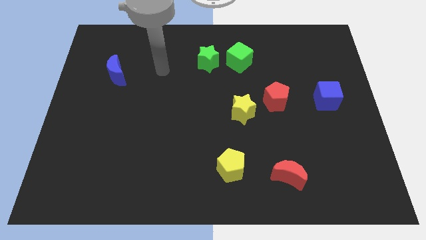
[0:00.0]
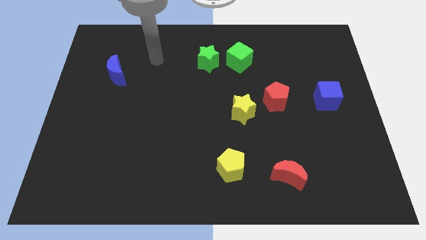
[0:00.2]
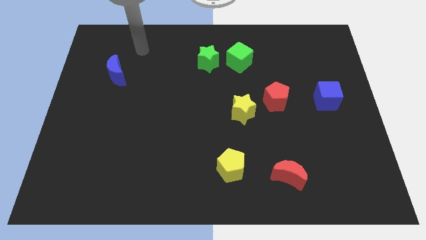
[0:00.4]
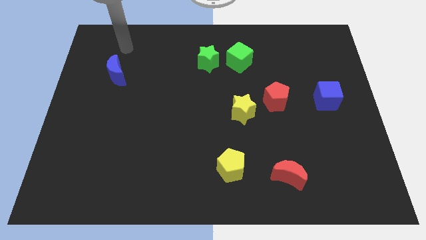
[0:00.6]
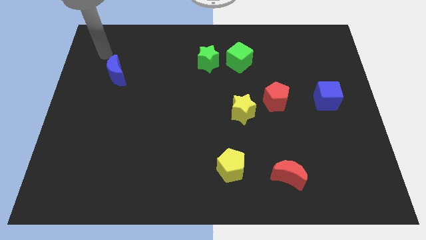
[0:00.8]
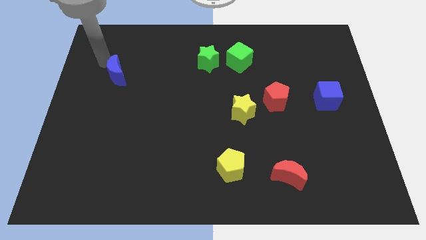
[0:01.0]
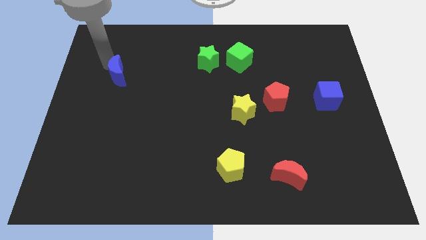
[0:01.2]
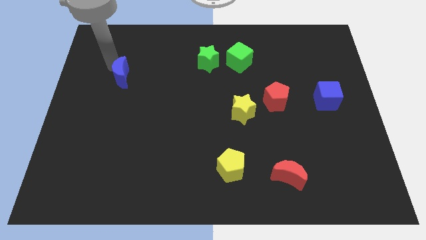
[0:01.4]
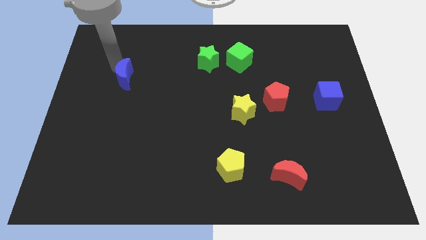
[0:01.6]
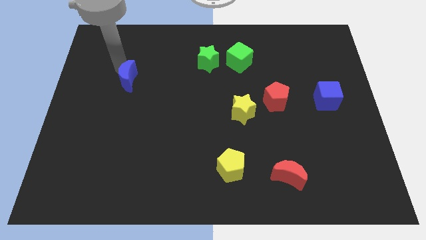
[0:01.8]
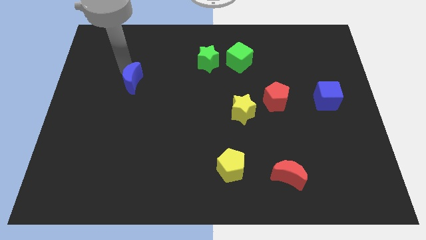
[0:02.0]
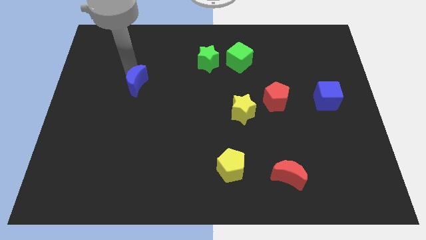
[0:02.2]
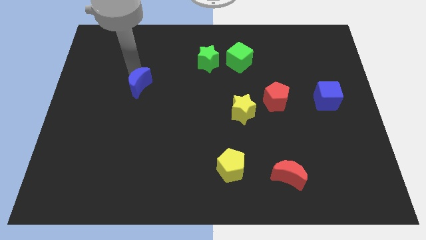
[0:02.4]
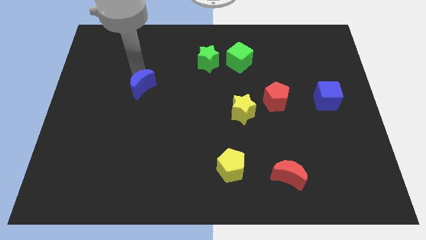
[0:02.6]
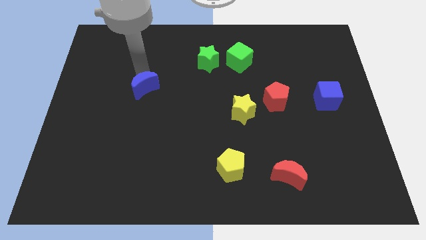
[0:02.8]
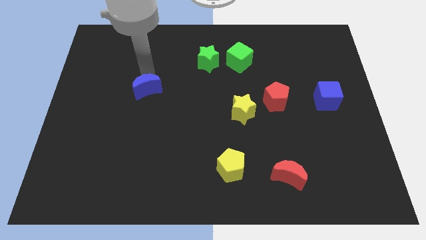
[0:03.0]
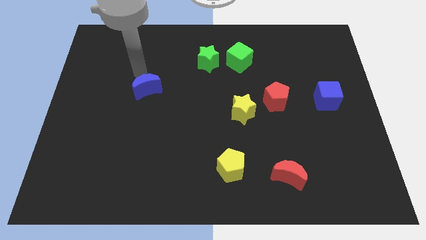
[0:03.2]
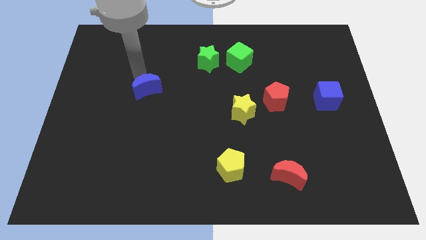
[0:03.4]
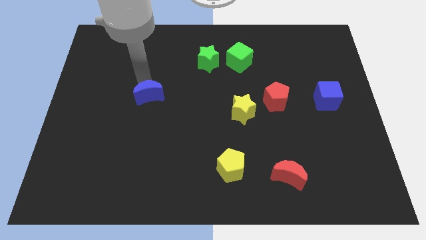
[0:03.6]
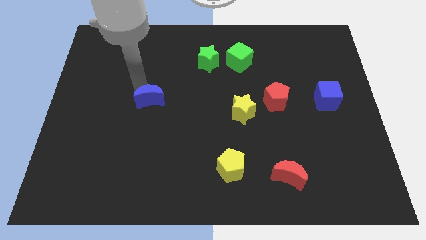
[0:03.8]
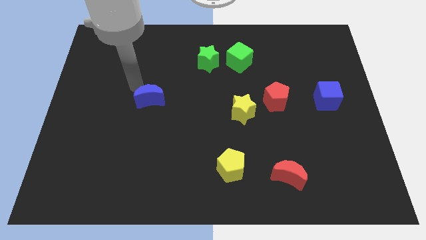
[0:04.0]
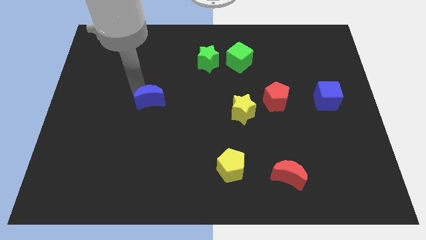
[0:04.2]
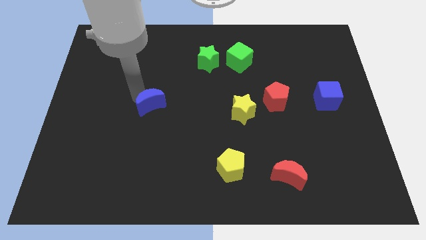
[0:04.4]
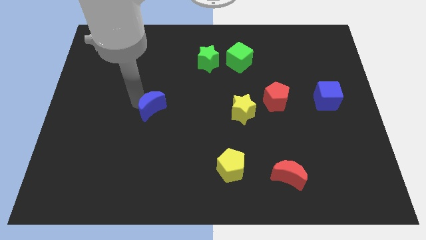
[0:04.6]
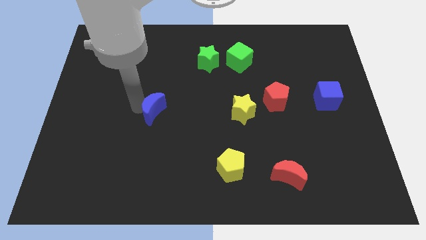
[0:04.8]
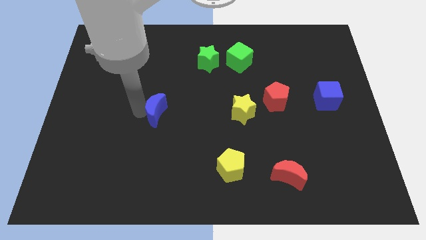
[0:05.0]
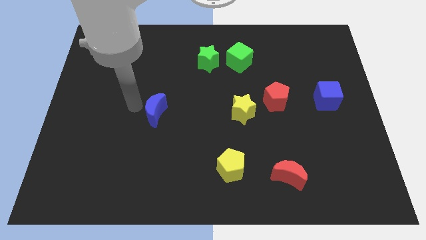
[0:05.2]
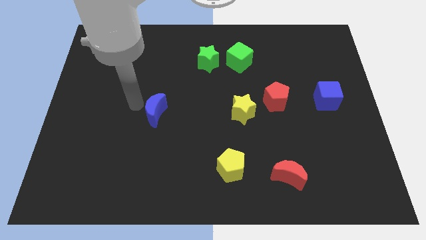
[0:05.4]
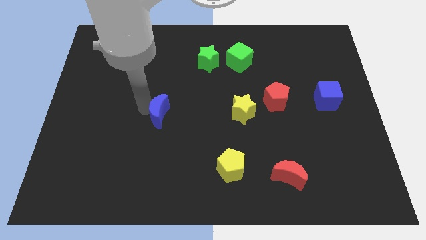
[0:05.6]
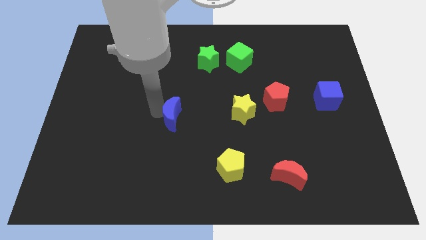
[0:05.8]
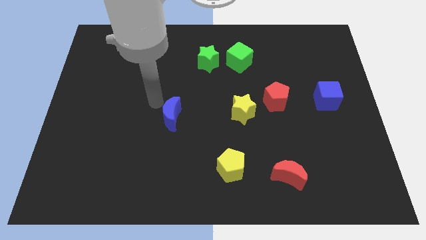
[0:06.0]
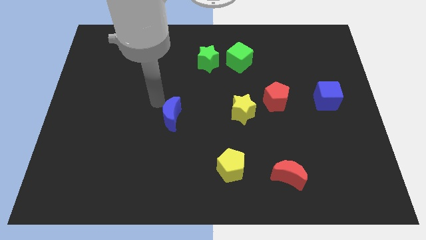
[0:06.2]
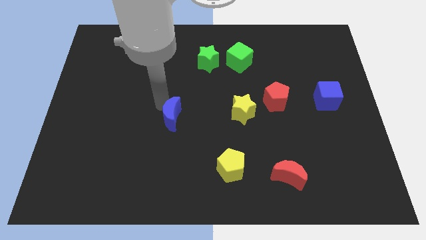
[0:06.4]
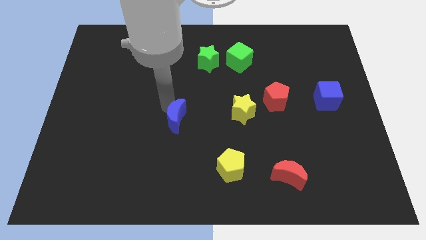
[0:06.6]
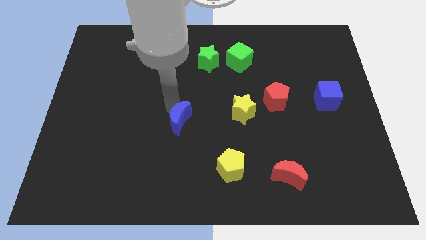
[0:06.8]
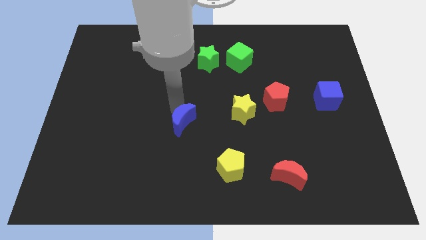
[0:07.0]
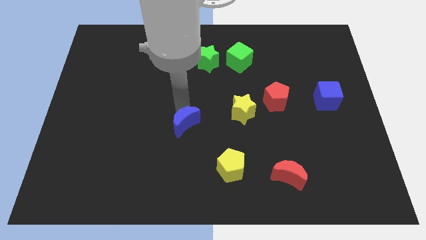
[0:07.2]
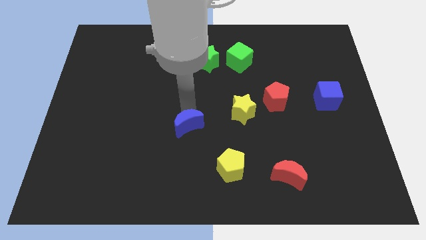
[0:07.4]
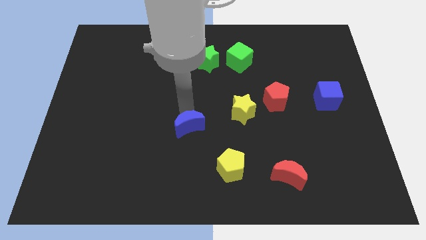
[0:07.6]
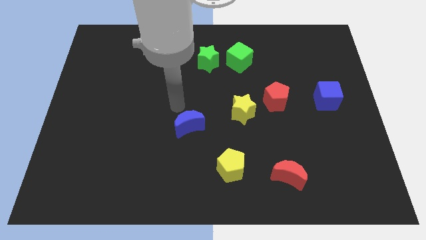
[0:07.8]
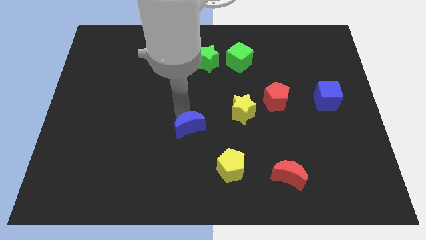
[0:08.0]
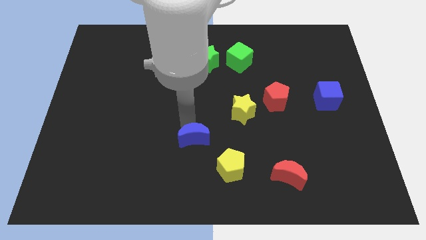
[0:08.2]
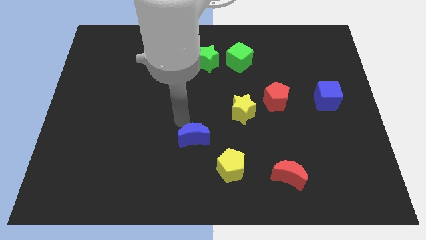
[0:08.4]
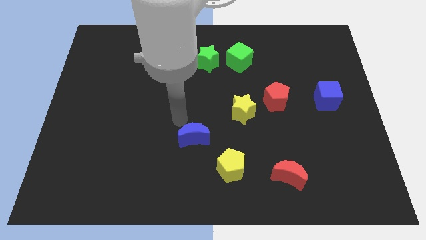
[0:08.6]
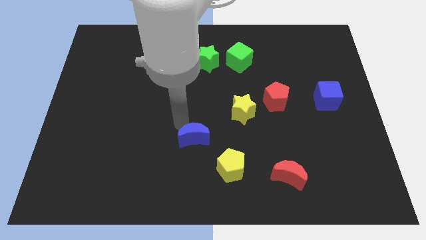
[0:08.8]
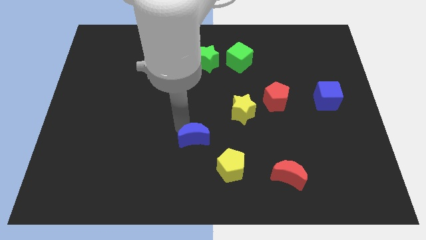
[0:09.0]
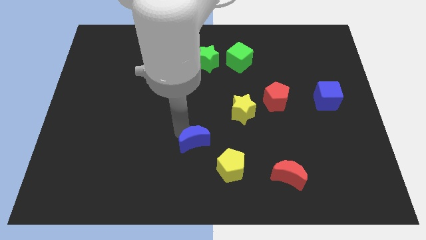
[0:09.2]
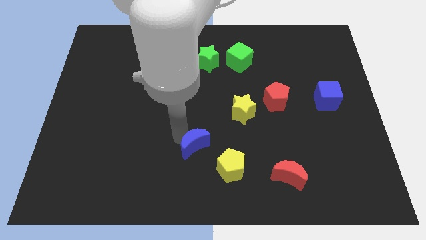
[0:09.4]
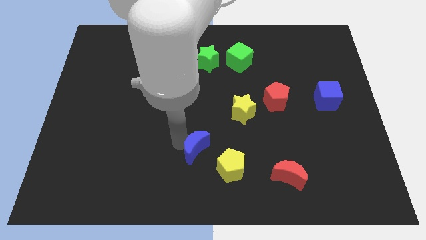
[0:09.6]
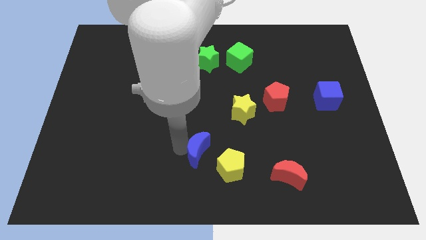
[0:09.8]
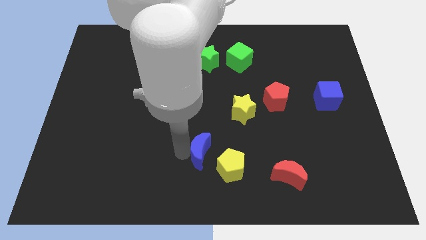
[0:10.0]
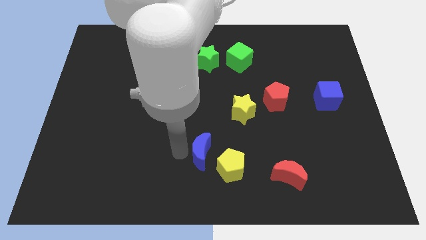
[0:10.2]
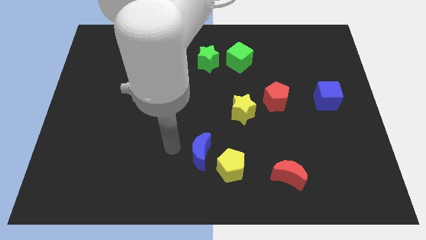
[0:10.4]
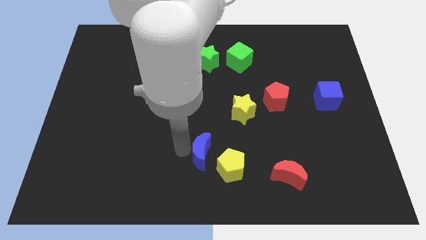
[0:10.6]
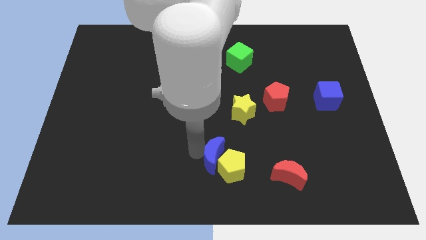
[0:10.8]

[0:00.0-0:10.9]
put the blue moon towards the yellow pentagon
